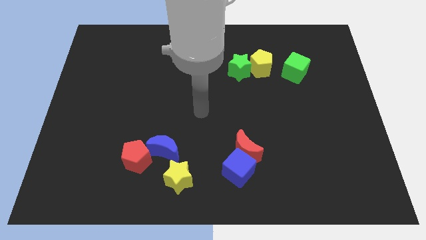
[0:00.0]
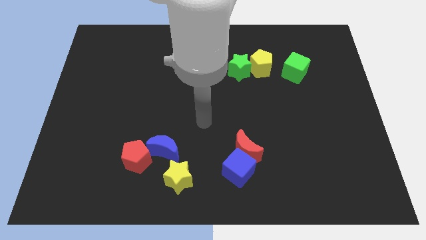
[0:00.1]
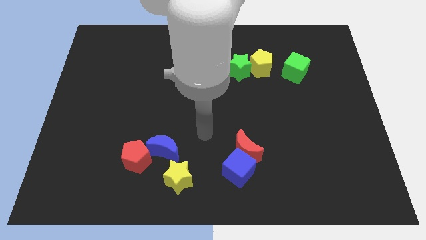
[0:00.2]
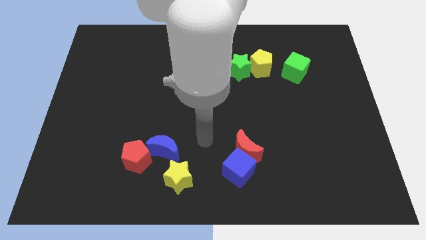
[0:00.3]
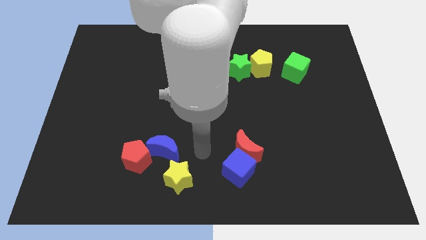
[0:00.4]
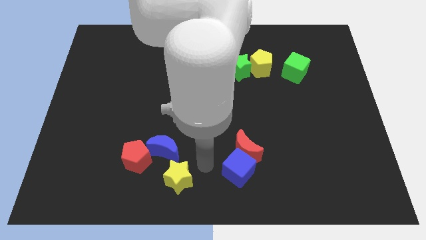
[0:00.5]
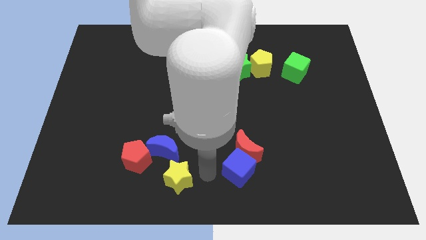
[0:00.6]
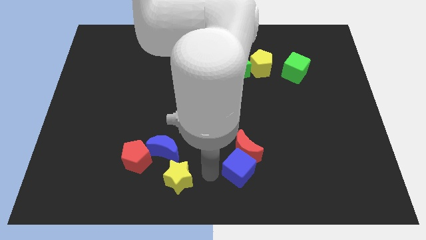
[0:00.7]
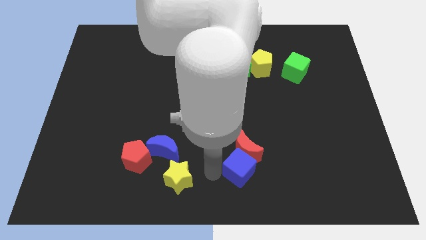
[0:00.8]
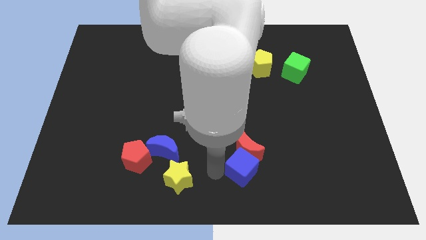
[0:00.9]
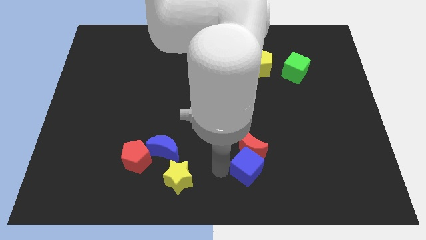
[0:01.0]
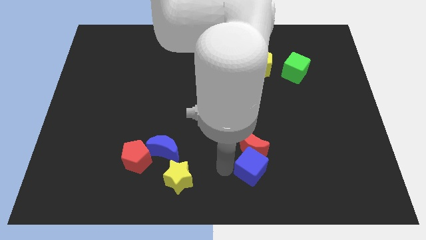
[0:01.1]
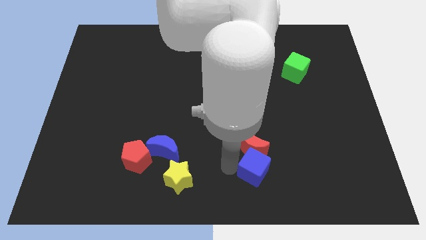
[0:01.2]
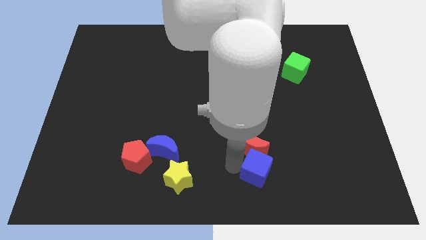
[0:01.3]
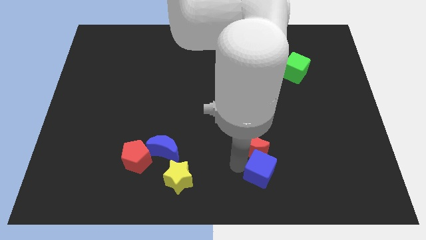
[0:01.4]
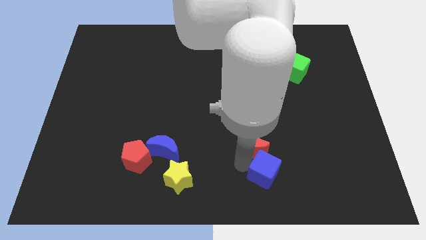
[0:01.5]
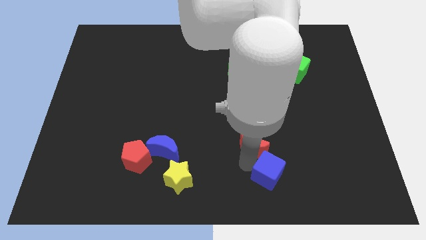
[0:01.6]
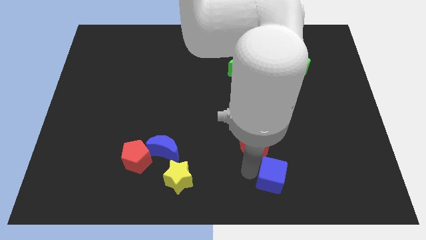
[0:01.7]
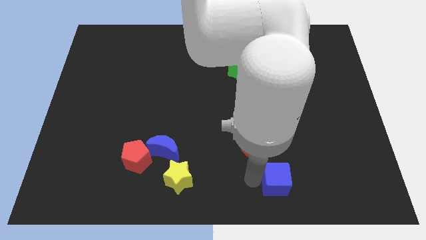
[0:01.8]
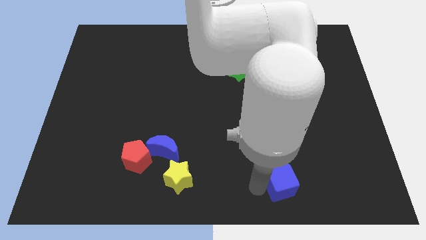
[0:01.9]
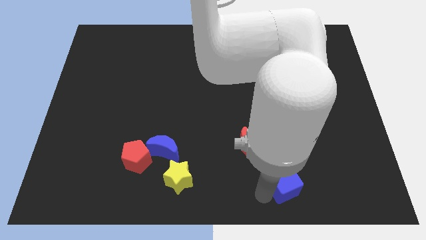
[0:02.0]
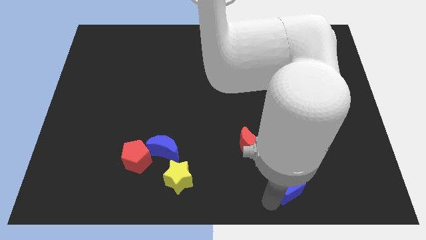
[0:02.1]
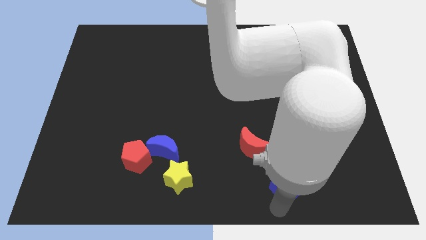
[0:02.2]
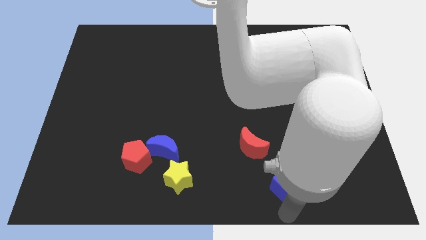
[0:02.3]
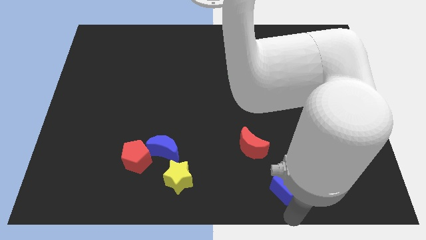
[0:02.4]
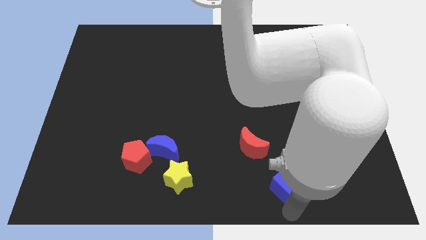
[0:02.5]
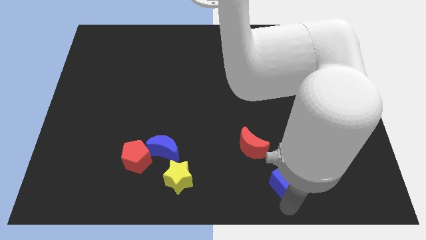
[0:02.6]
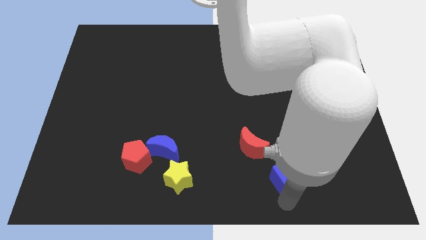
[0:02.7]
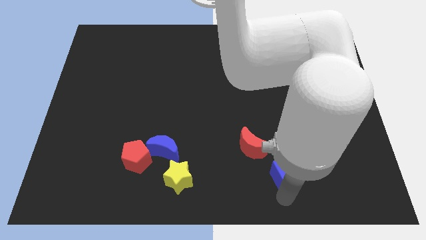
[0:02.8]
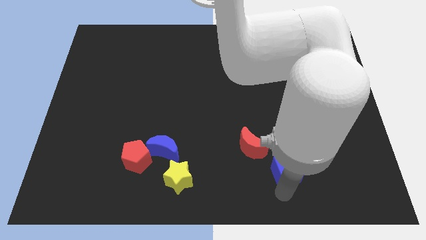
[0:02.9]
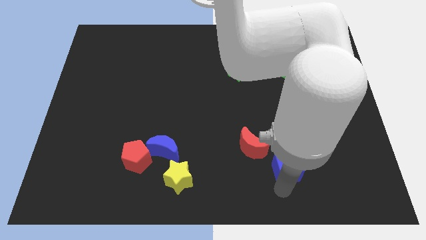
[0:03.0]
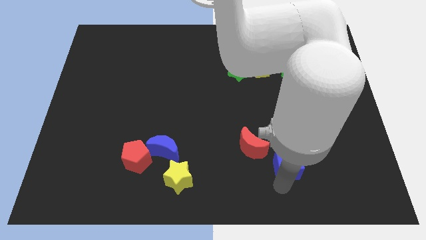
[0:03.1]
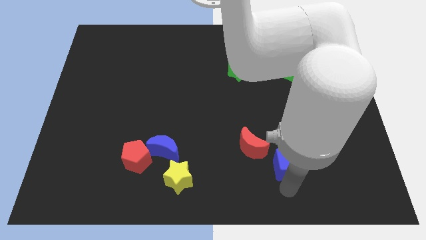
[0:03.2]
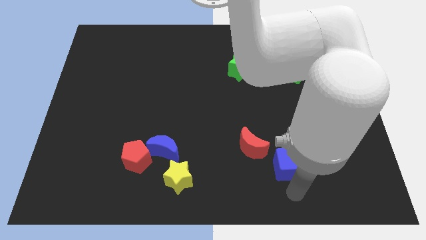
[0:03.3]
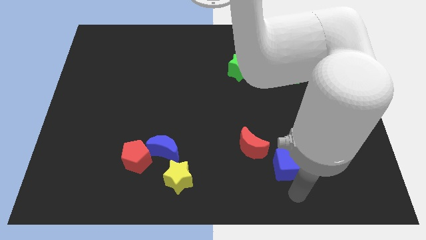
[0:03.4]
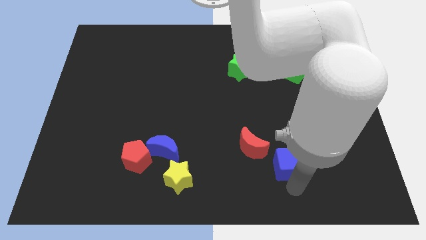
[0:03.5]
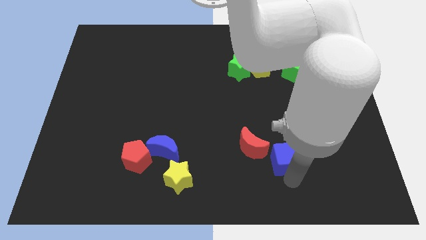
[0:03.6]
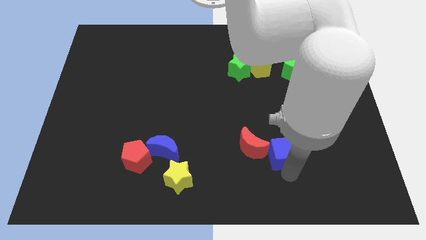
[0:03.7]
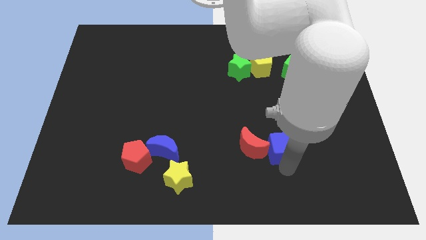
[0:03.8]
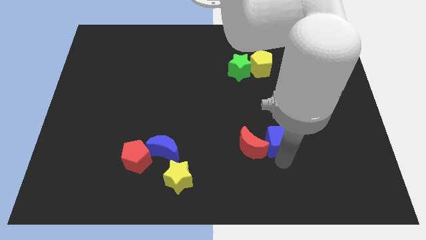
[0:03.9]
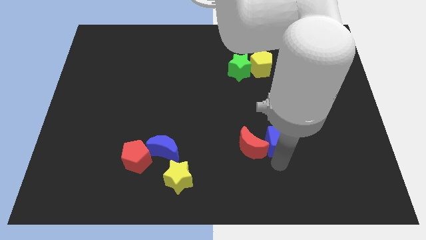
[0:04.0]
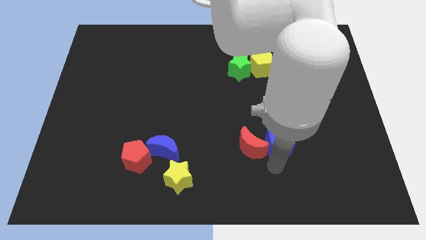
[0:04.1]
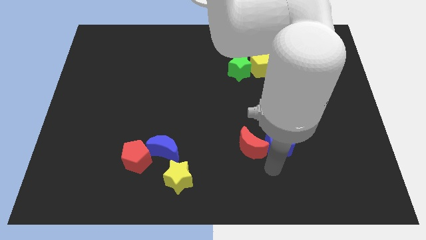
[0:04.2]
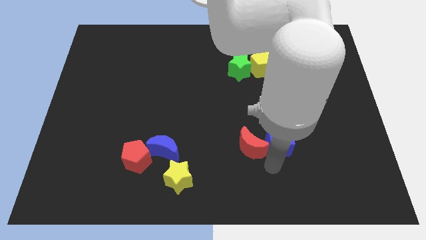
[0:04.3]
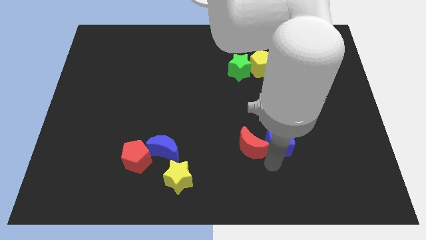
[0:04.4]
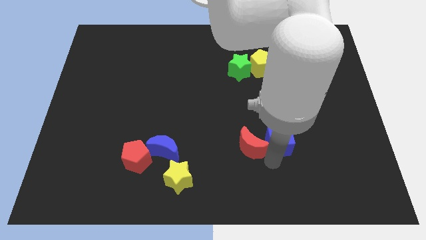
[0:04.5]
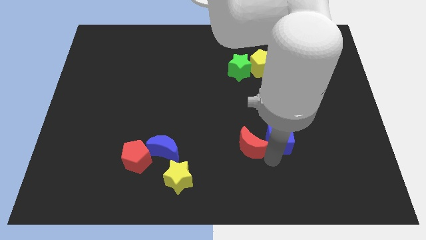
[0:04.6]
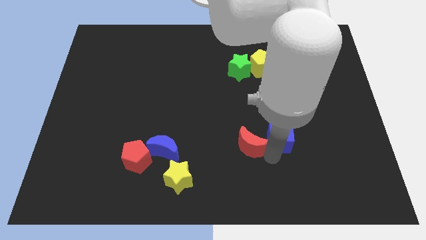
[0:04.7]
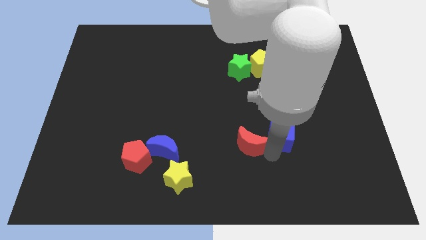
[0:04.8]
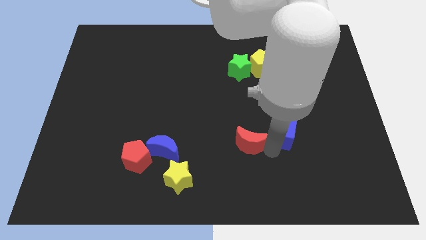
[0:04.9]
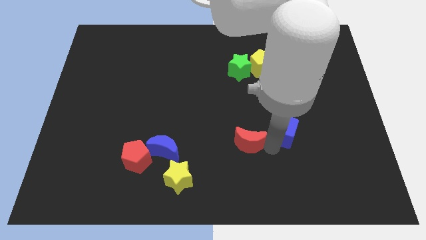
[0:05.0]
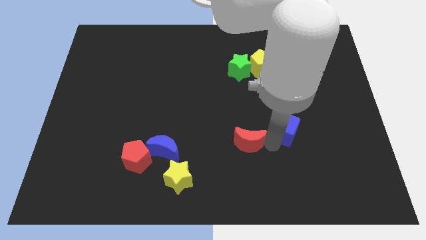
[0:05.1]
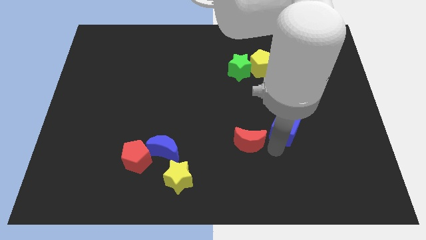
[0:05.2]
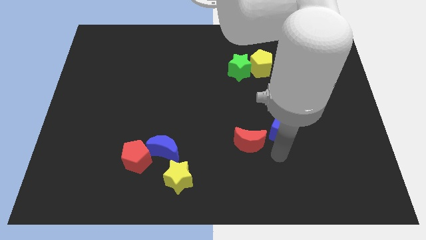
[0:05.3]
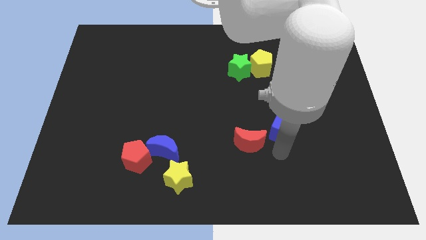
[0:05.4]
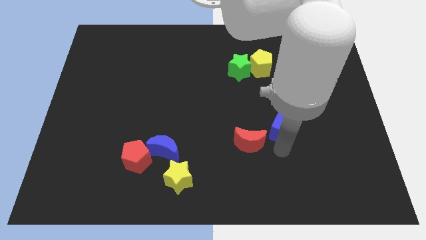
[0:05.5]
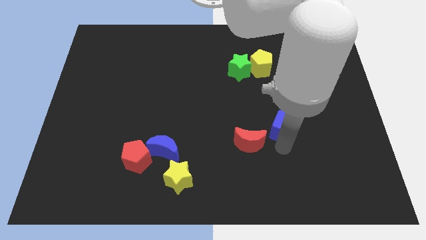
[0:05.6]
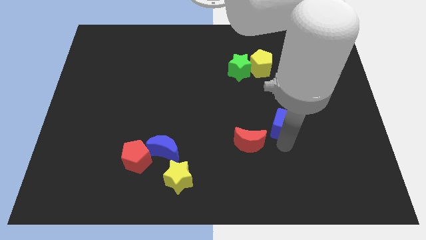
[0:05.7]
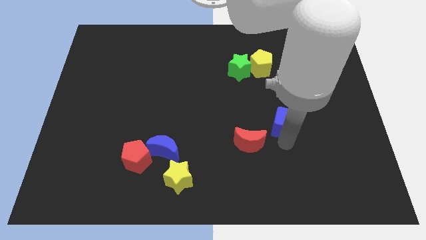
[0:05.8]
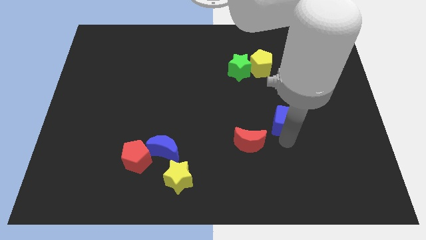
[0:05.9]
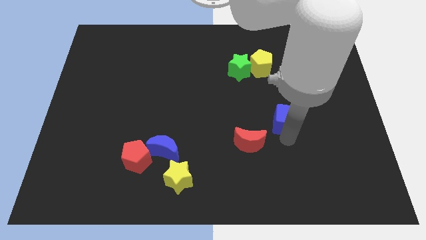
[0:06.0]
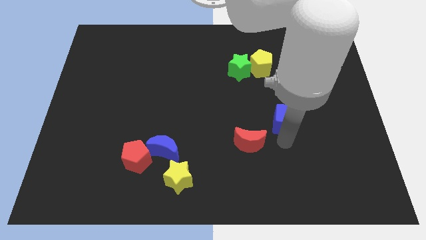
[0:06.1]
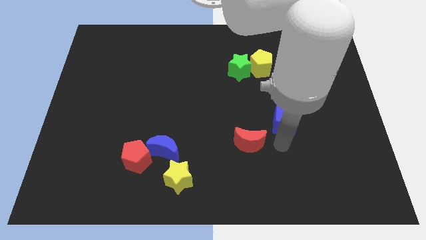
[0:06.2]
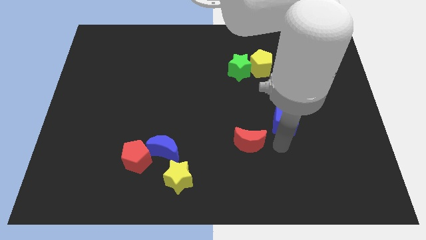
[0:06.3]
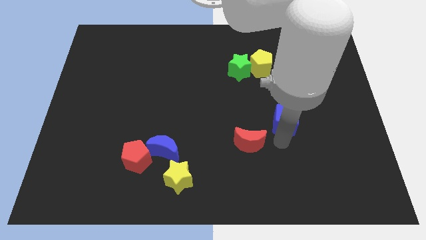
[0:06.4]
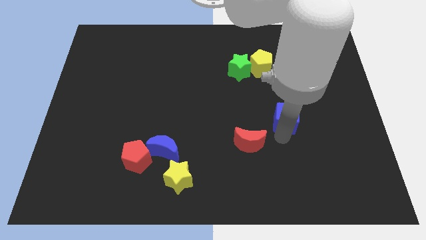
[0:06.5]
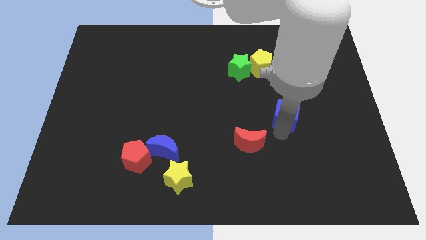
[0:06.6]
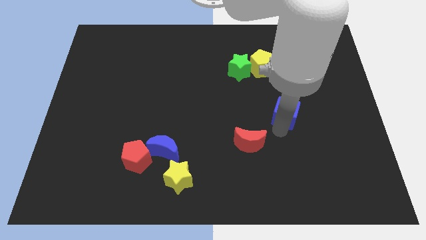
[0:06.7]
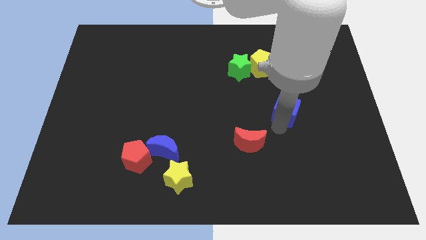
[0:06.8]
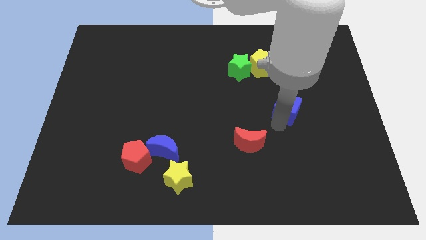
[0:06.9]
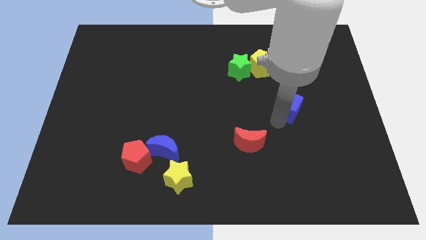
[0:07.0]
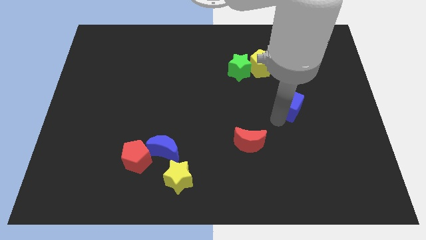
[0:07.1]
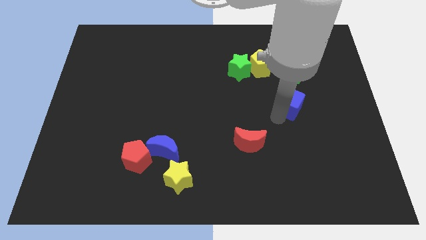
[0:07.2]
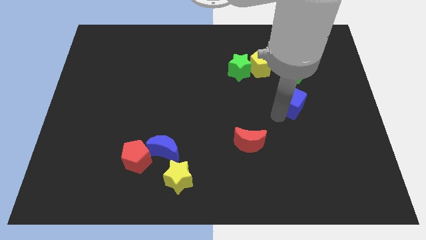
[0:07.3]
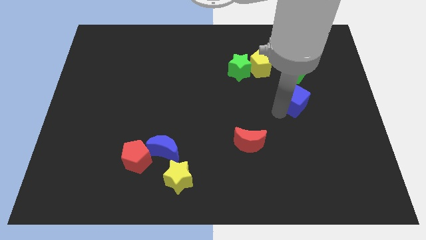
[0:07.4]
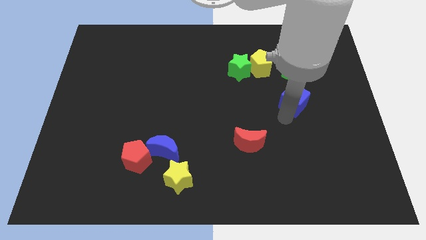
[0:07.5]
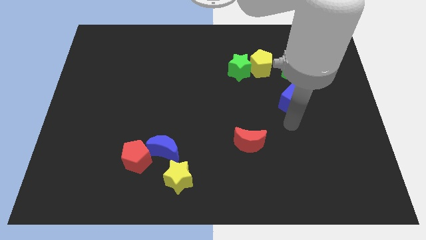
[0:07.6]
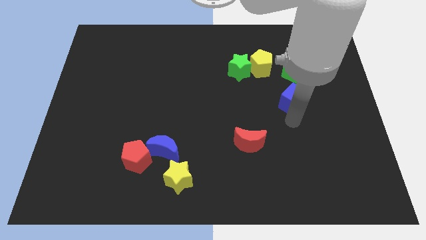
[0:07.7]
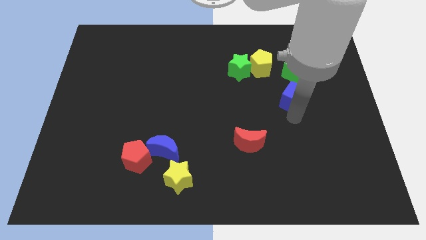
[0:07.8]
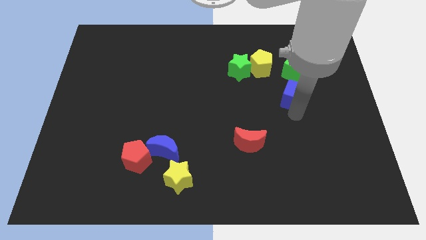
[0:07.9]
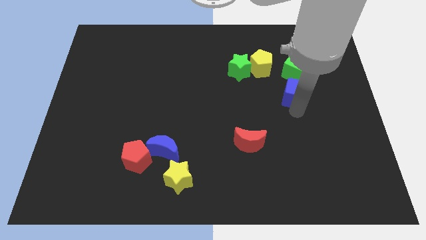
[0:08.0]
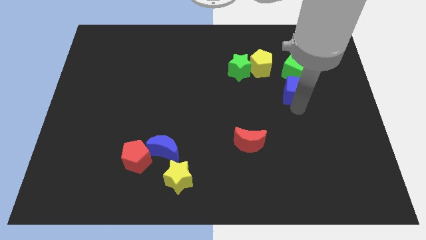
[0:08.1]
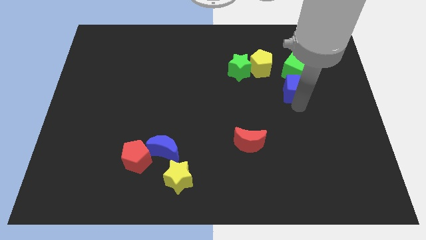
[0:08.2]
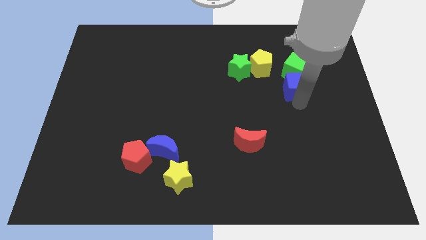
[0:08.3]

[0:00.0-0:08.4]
move the blue cube close to the green cube
